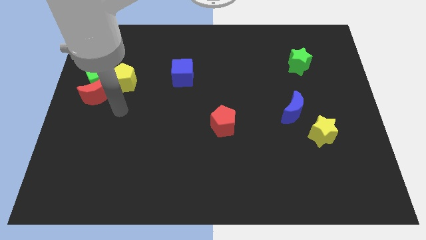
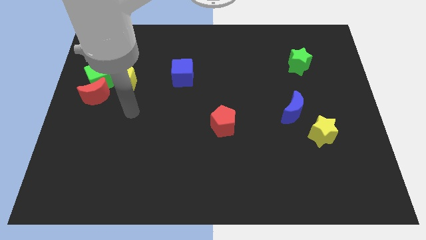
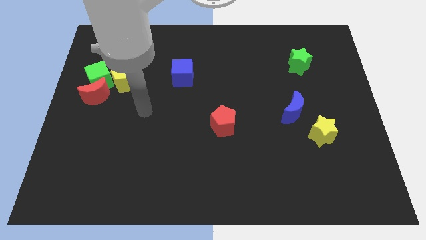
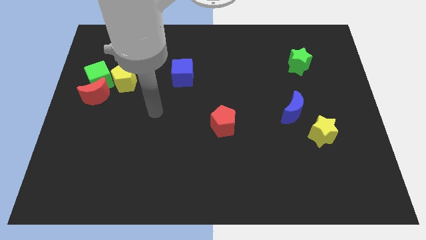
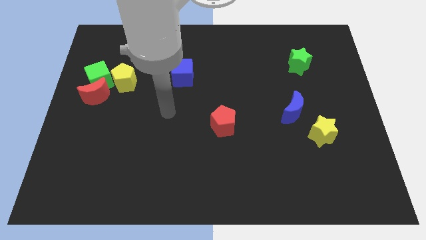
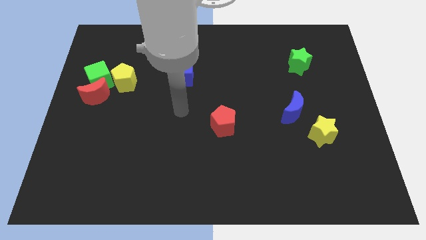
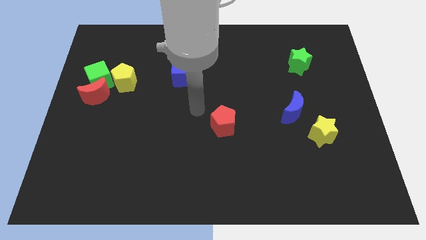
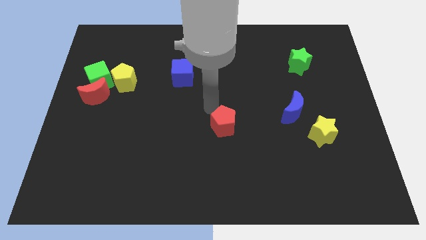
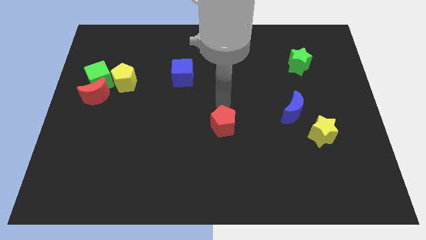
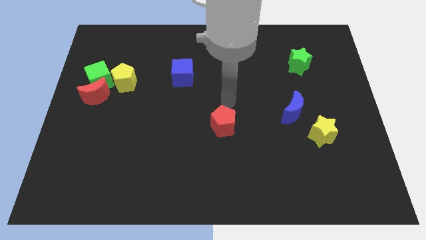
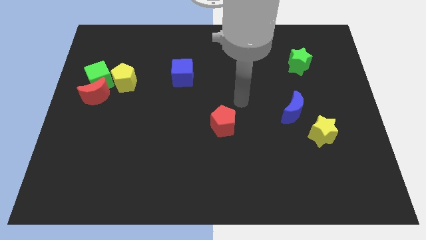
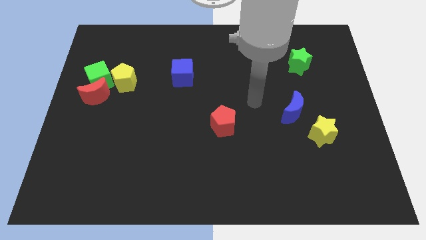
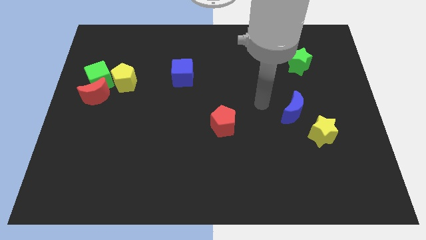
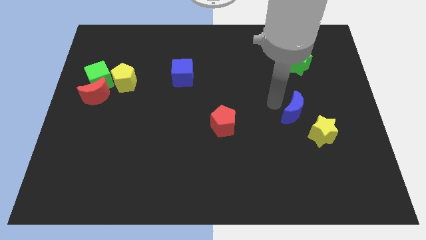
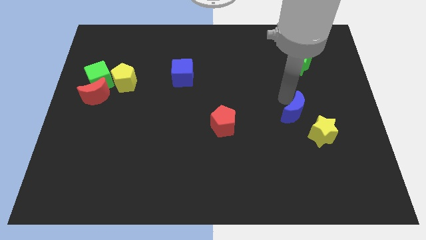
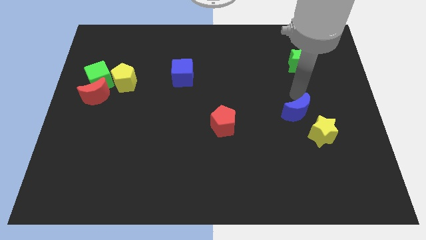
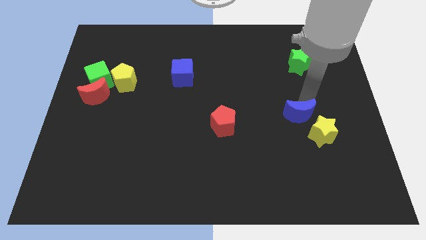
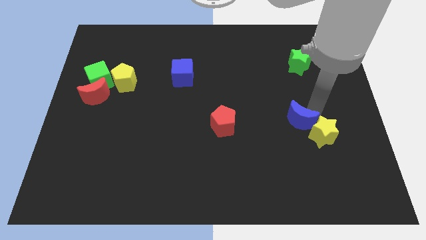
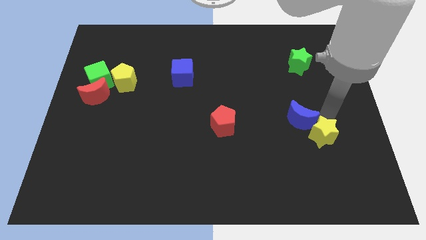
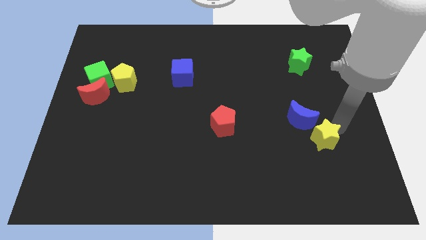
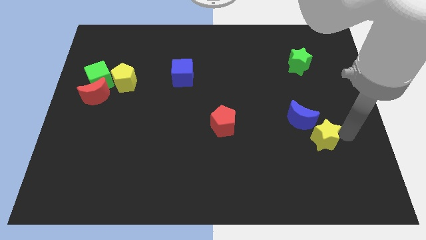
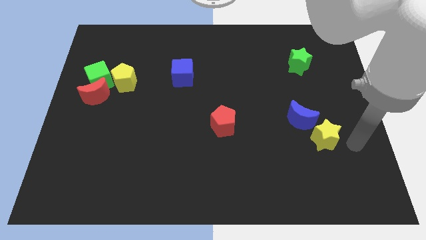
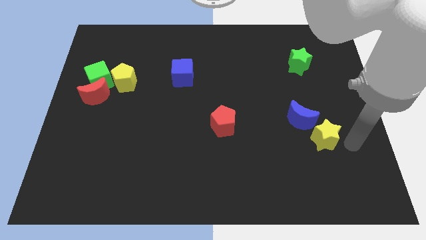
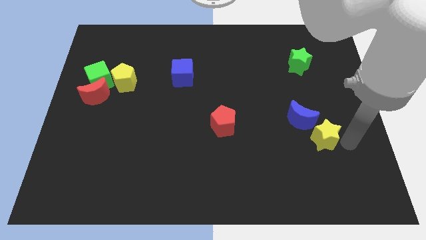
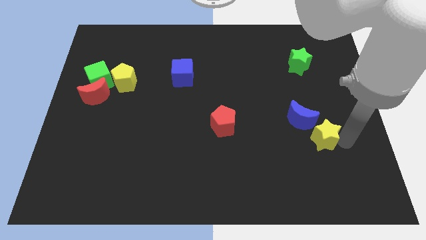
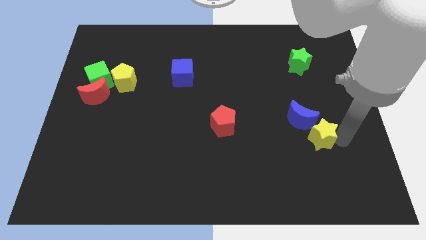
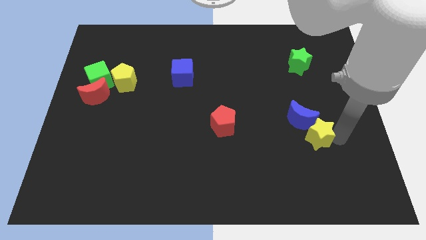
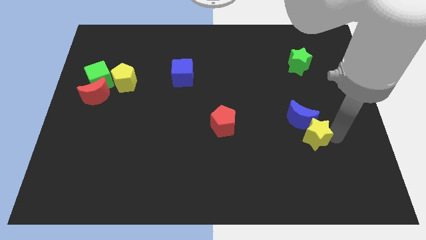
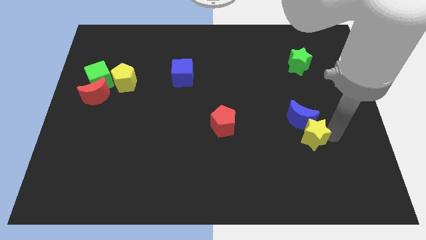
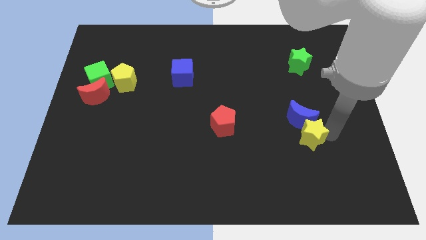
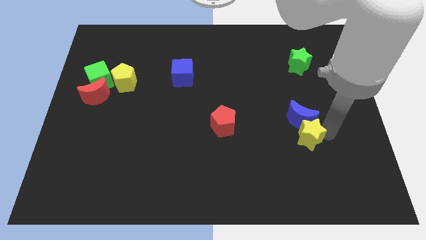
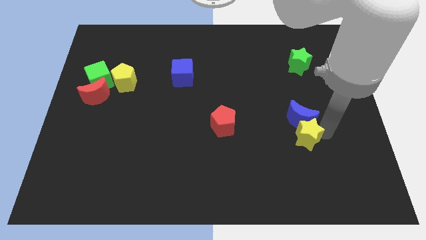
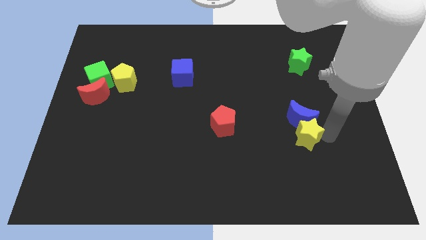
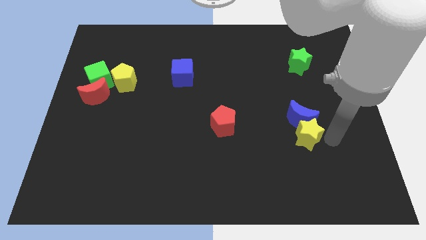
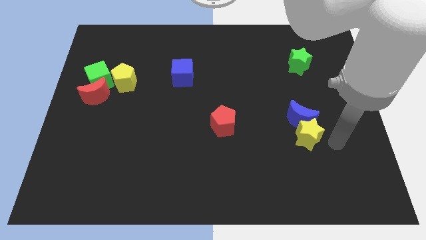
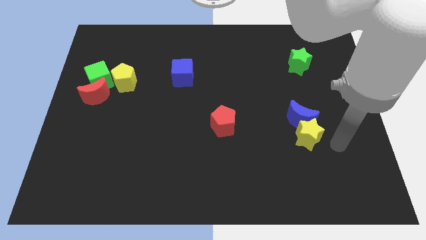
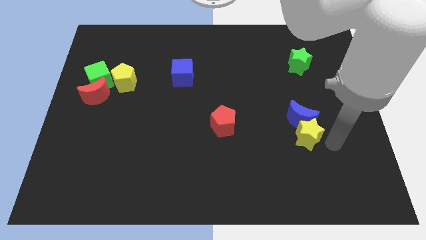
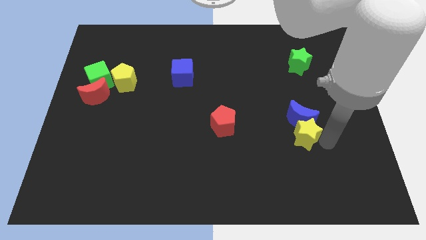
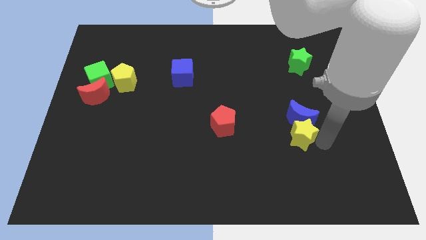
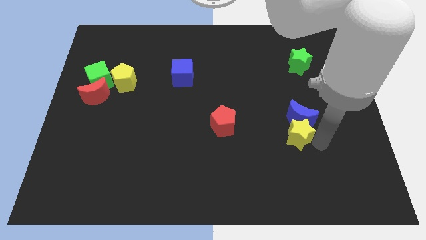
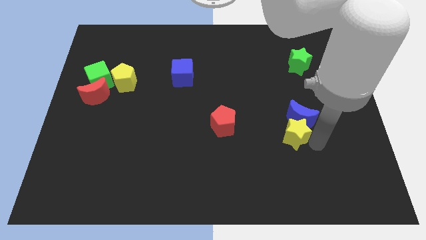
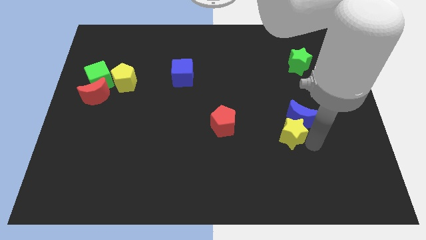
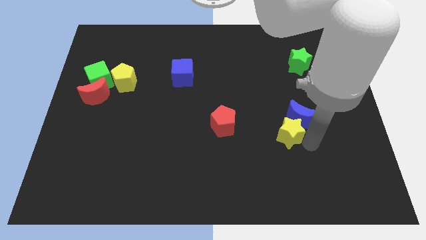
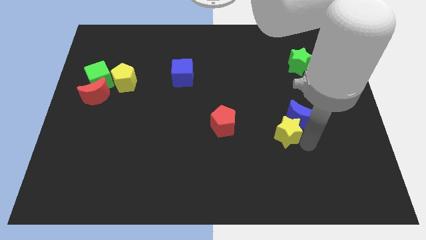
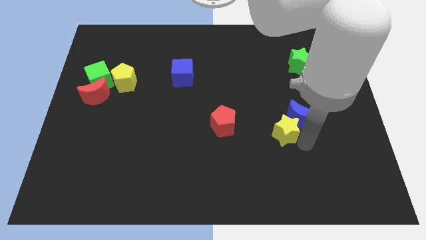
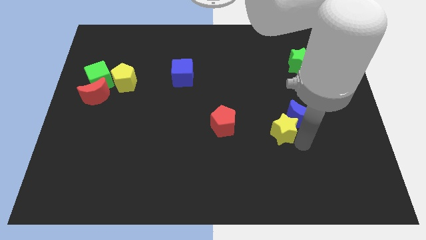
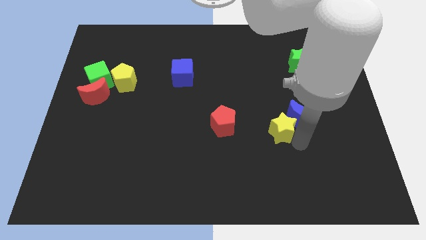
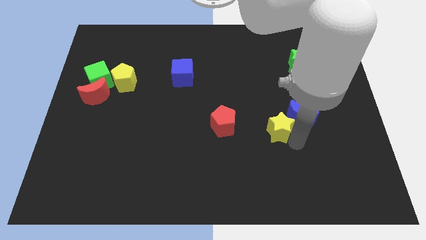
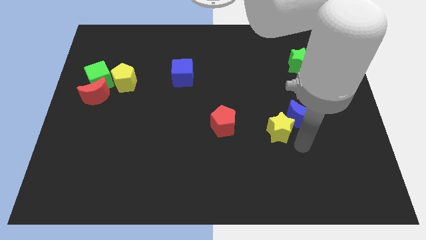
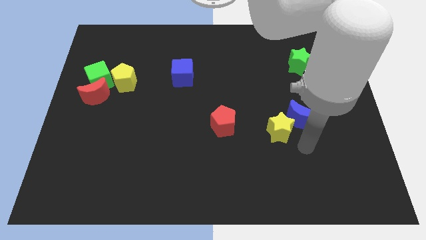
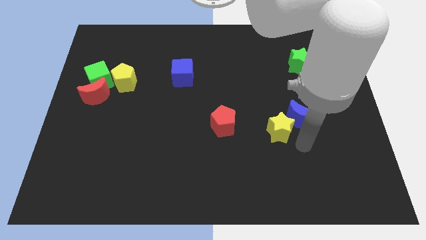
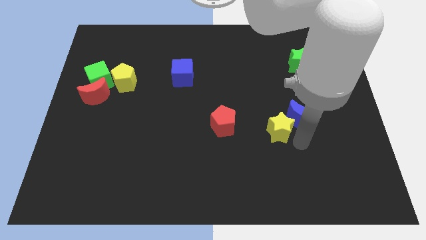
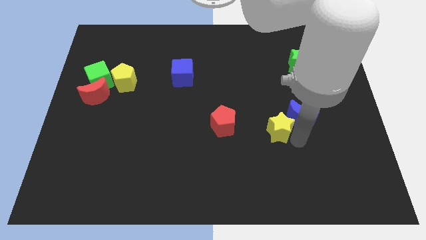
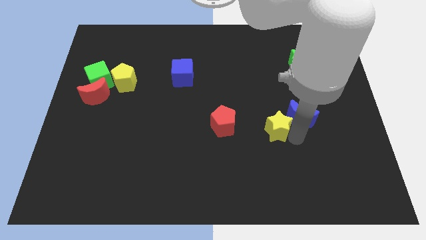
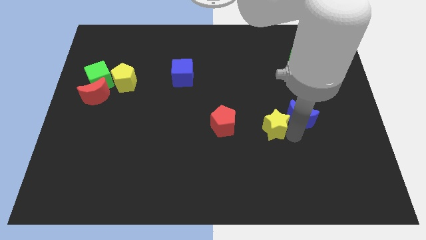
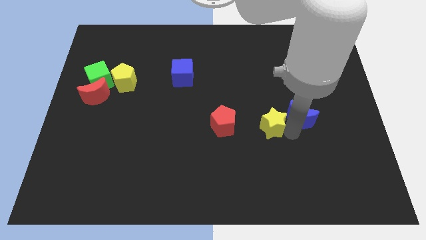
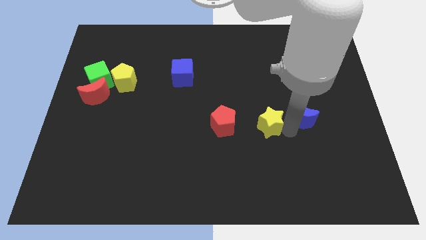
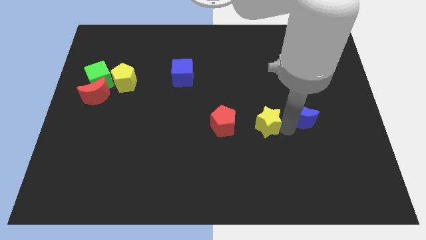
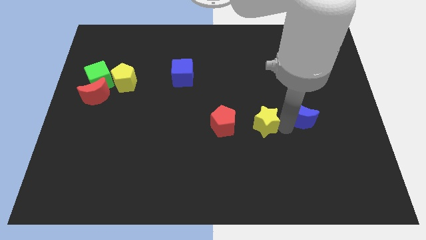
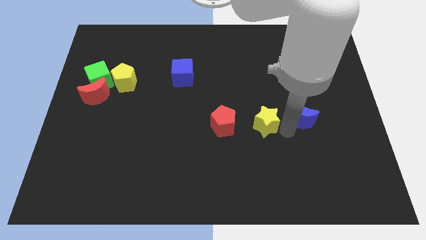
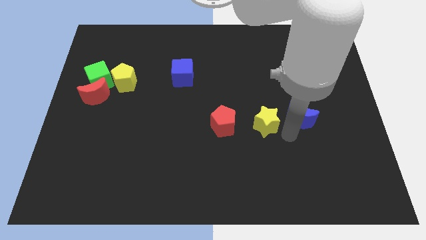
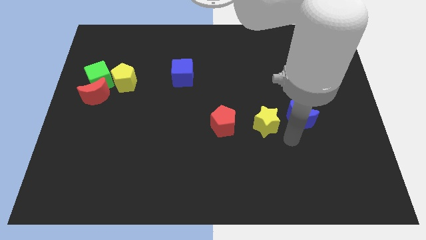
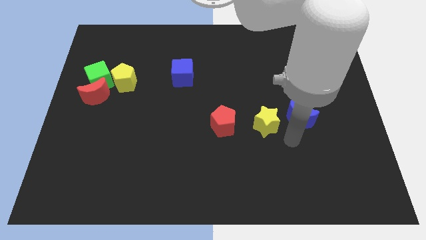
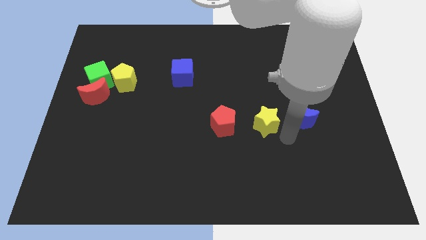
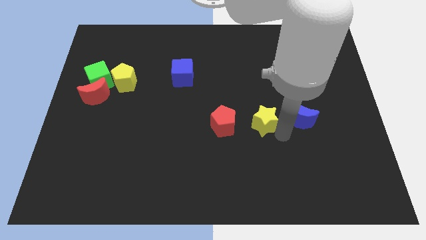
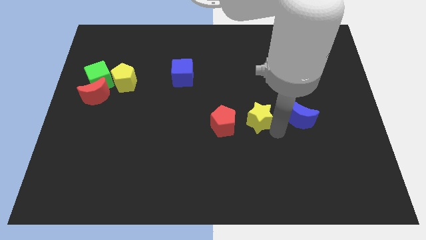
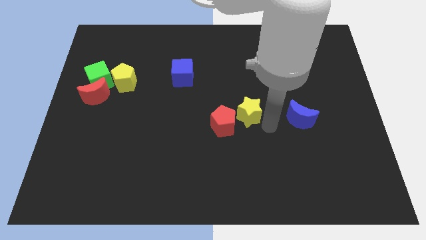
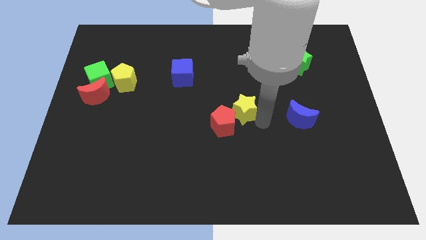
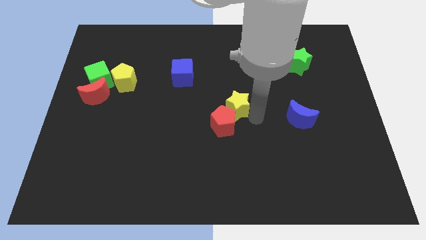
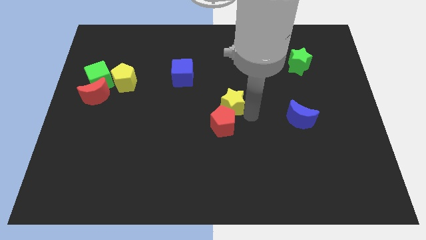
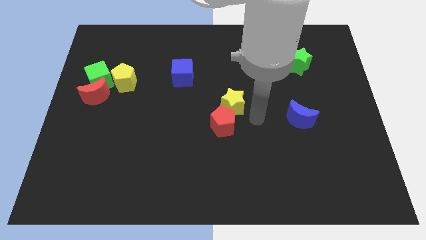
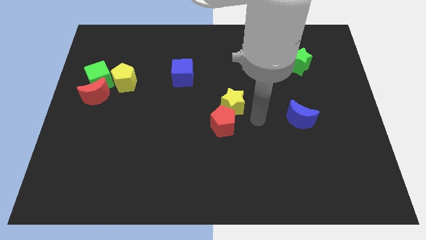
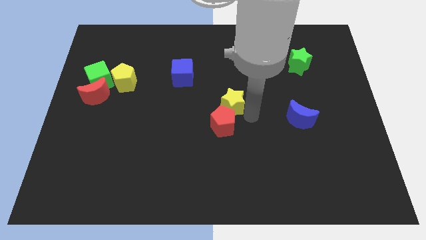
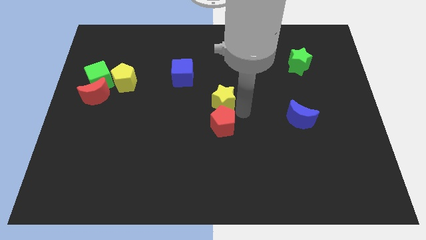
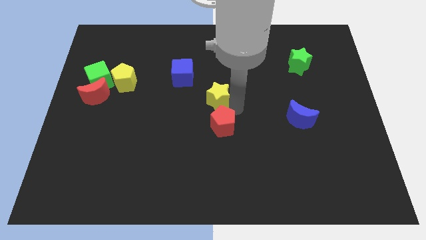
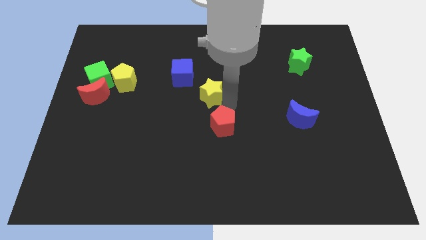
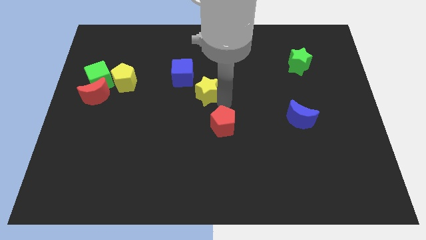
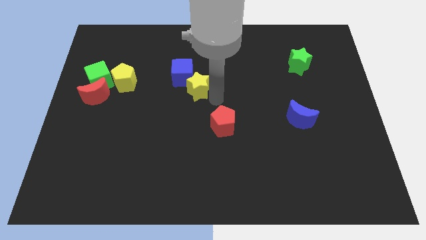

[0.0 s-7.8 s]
move the yellow star close to the blue cube

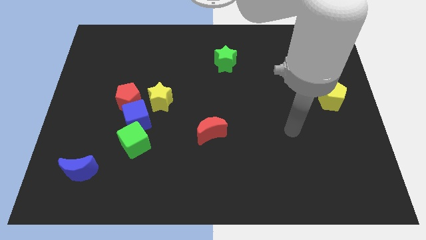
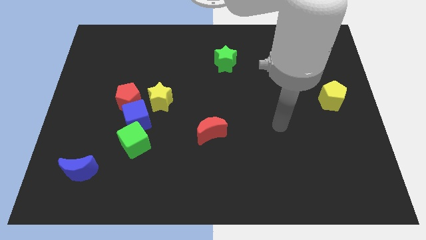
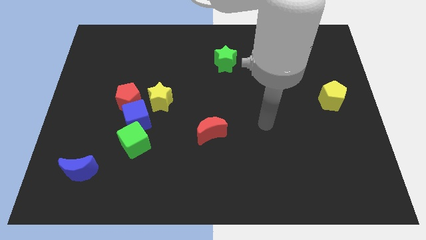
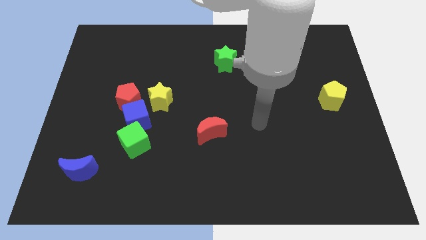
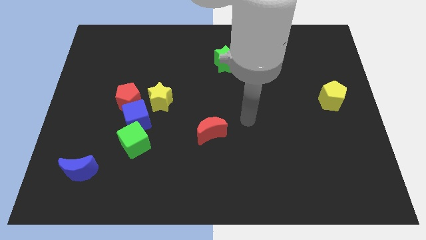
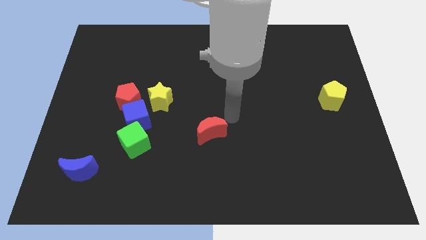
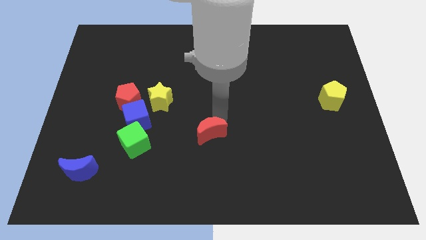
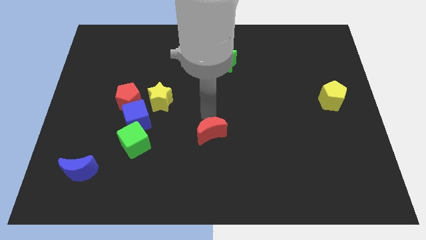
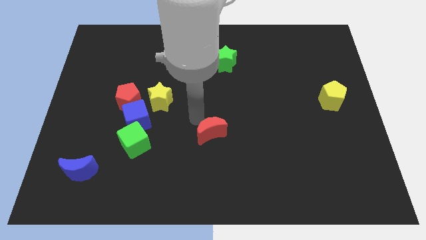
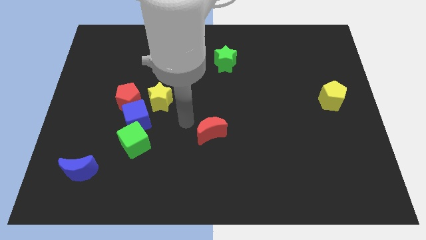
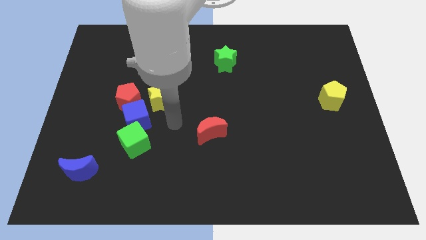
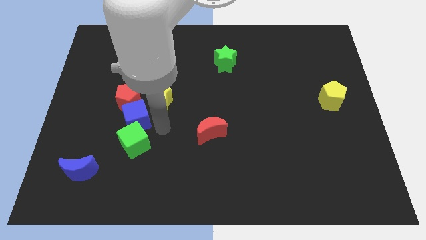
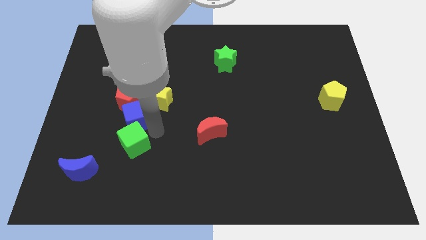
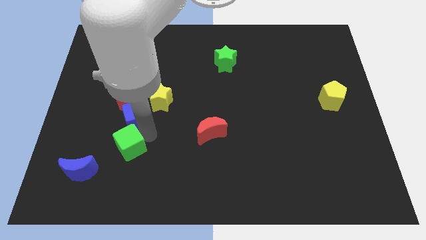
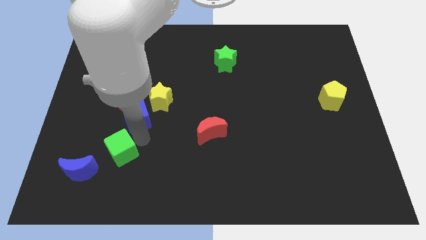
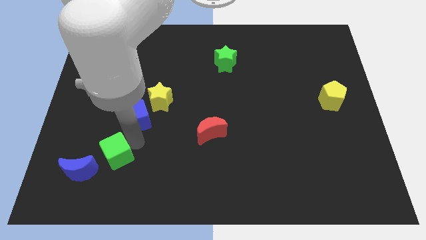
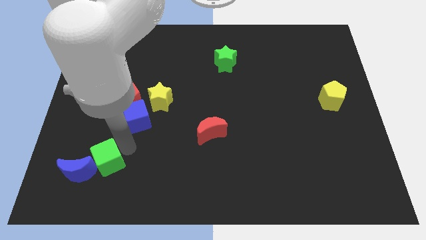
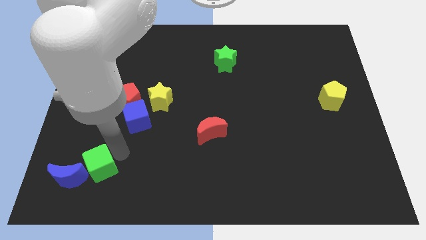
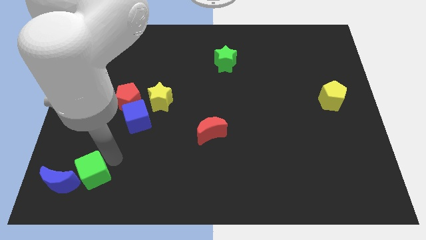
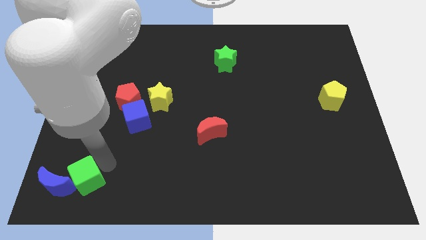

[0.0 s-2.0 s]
put the green cube towards the blue moon
